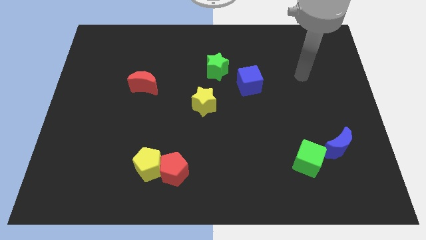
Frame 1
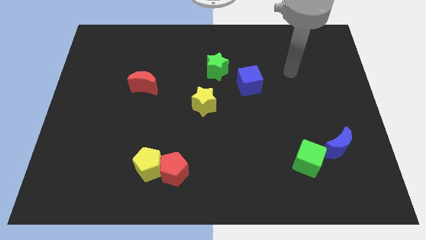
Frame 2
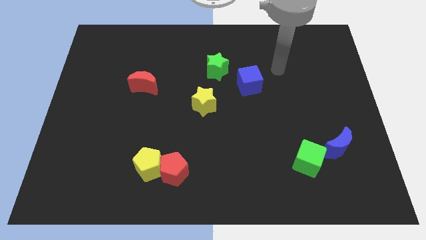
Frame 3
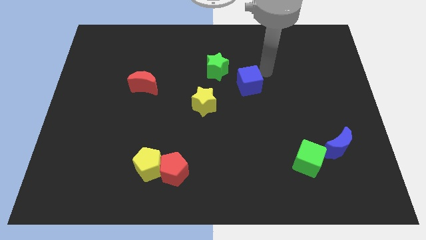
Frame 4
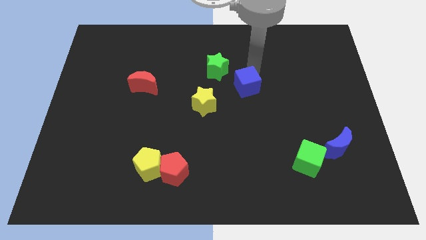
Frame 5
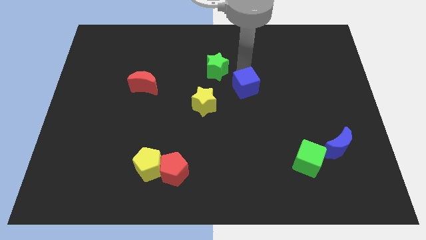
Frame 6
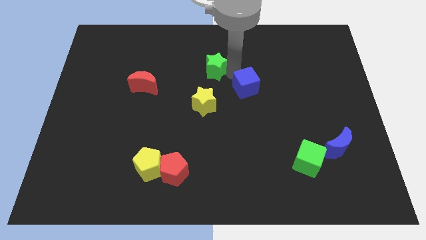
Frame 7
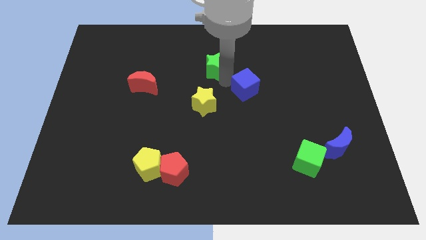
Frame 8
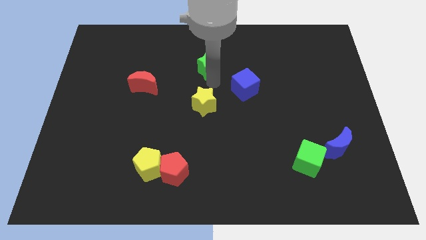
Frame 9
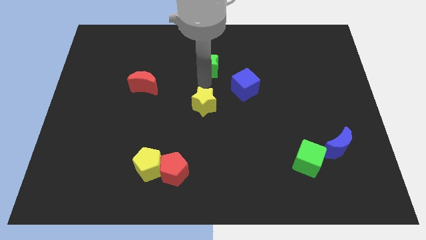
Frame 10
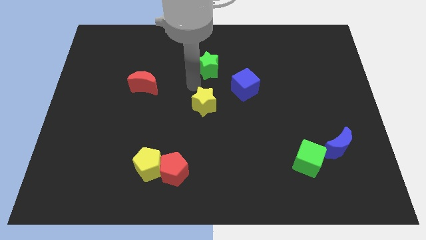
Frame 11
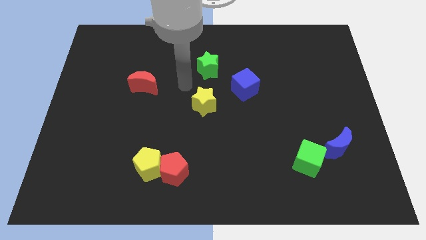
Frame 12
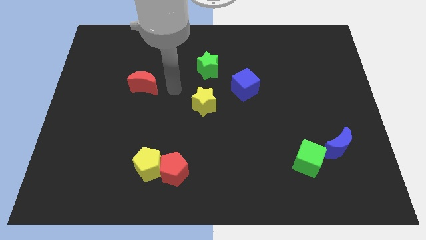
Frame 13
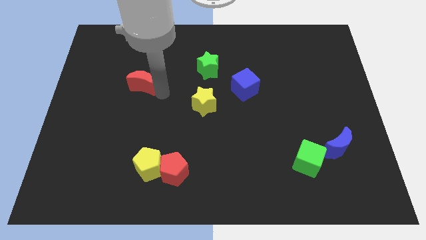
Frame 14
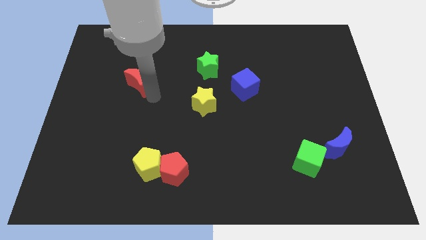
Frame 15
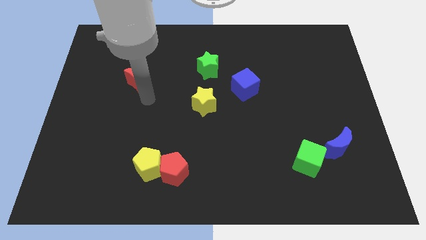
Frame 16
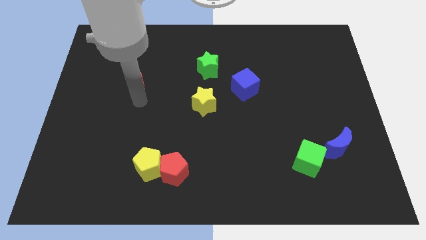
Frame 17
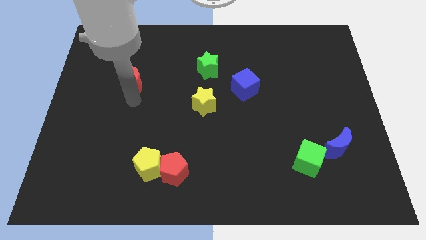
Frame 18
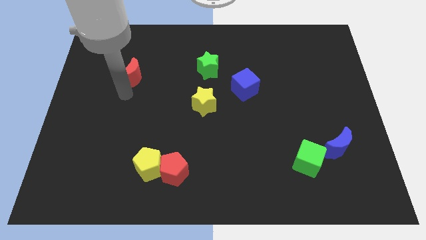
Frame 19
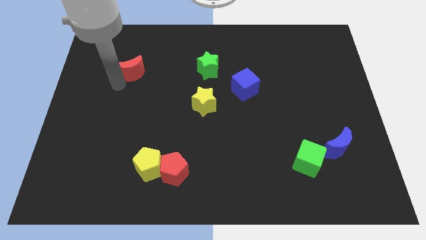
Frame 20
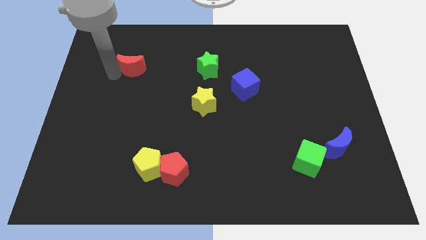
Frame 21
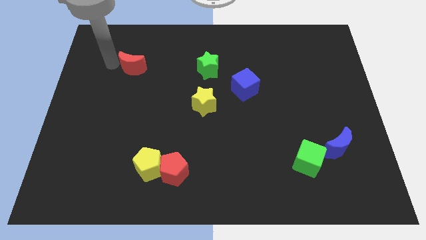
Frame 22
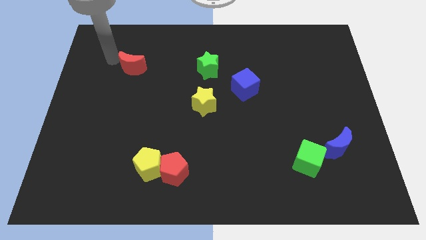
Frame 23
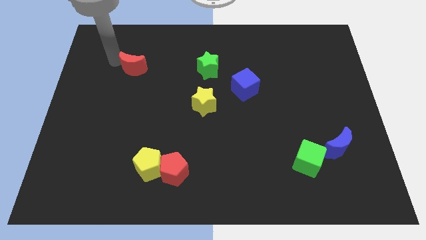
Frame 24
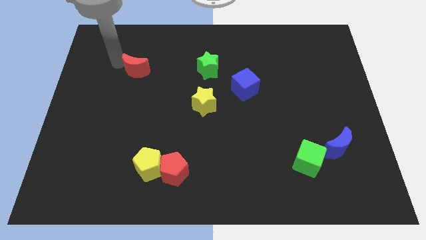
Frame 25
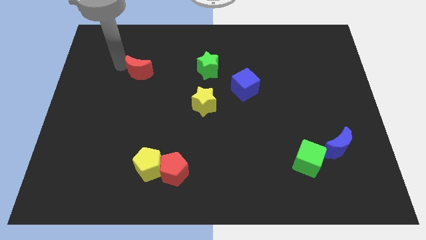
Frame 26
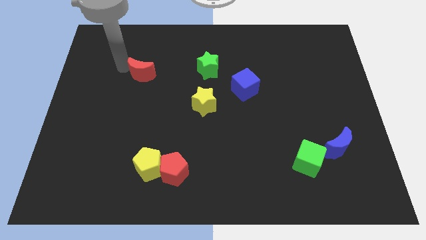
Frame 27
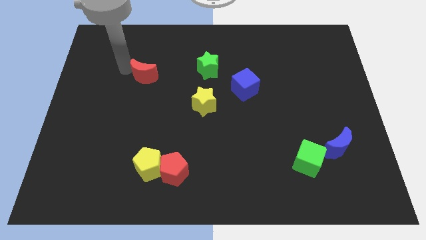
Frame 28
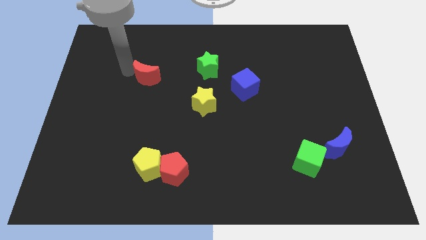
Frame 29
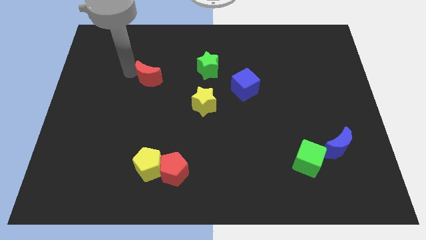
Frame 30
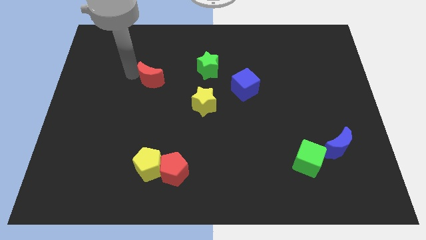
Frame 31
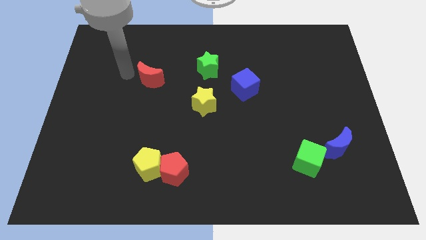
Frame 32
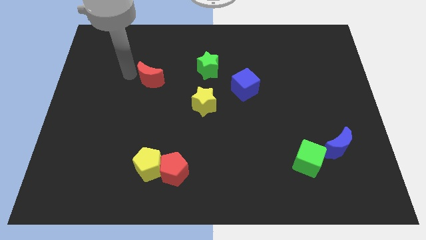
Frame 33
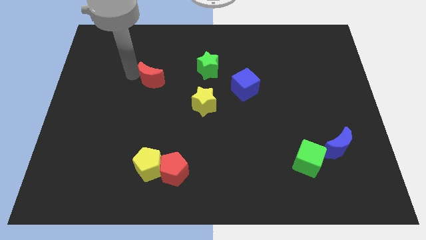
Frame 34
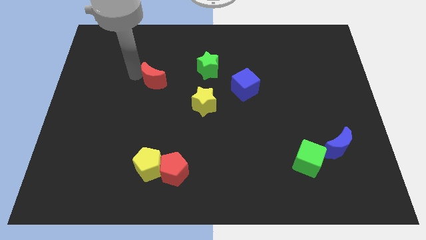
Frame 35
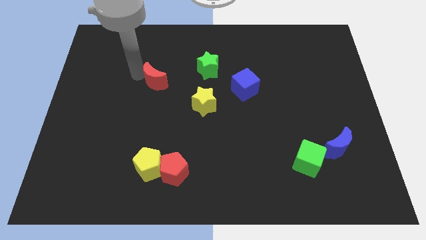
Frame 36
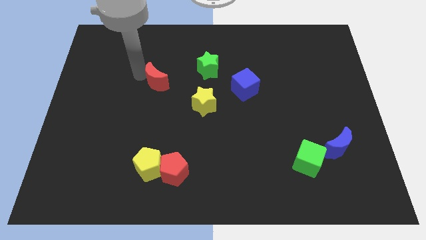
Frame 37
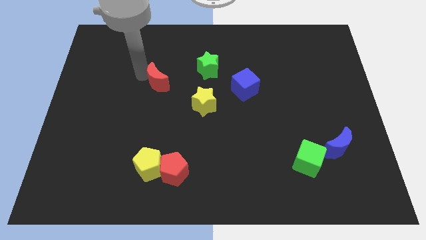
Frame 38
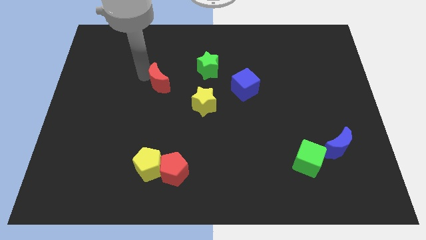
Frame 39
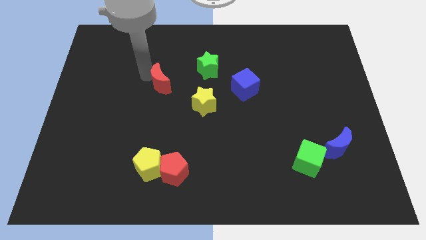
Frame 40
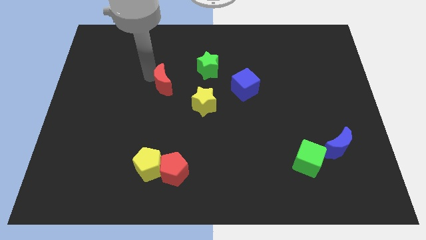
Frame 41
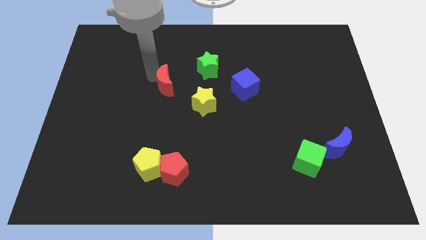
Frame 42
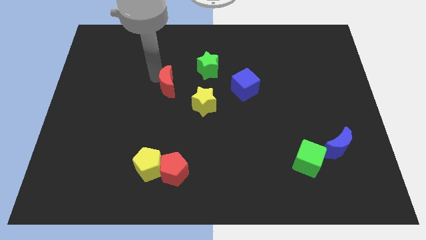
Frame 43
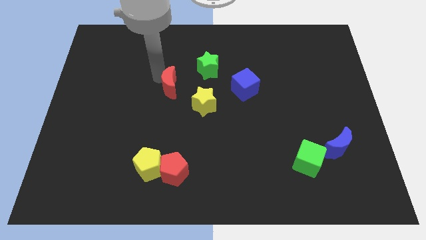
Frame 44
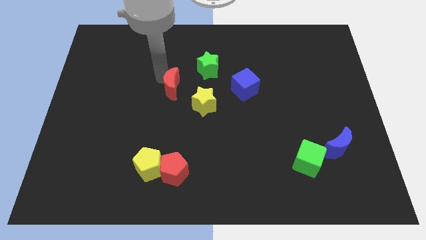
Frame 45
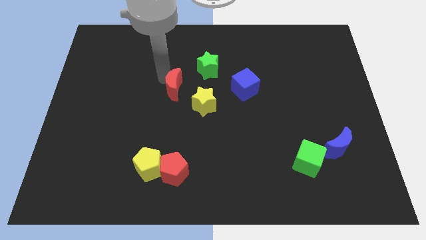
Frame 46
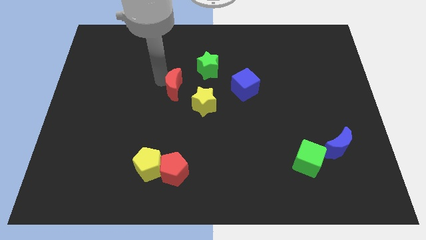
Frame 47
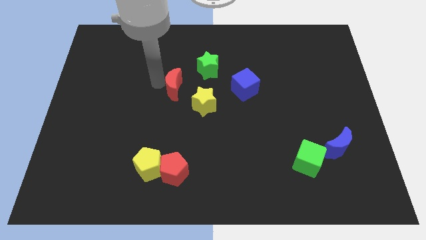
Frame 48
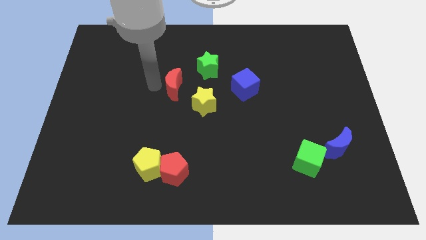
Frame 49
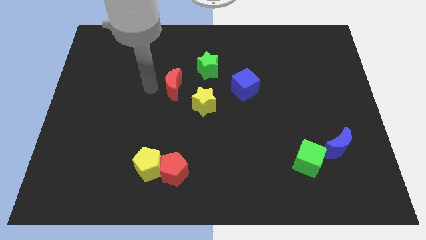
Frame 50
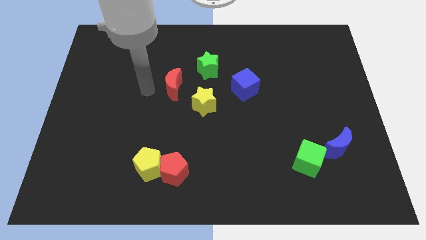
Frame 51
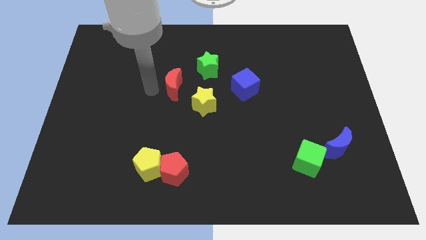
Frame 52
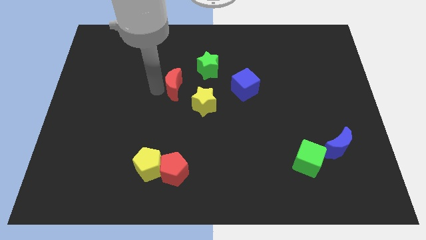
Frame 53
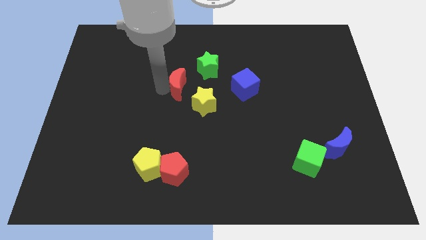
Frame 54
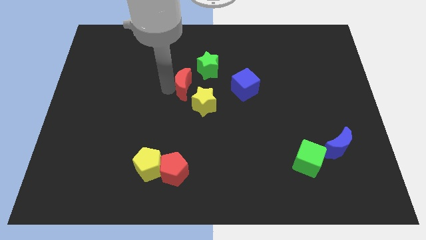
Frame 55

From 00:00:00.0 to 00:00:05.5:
put the red moon to the left side of the blue cube
